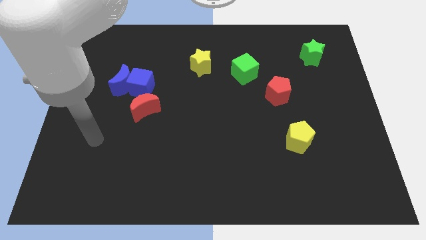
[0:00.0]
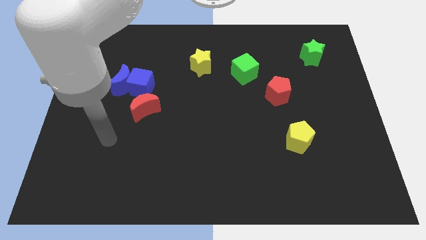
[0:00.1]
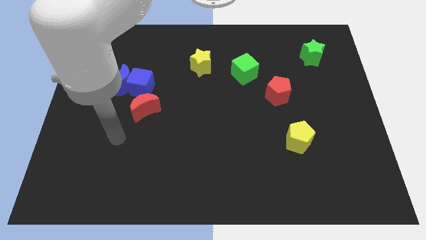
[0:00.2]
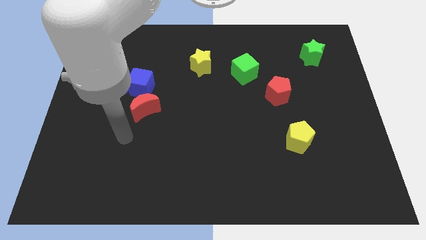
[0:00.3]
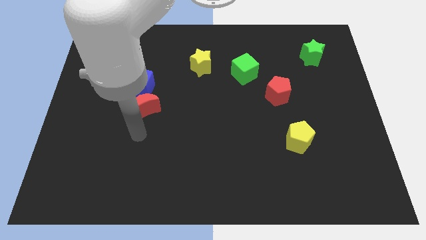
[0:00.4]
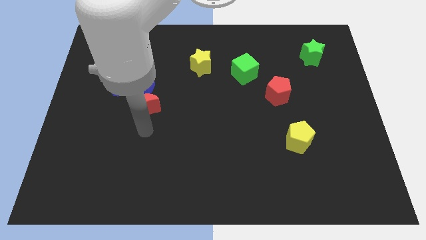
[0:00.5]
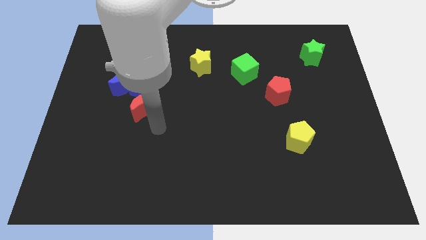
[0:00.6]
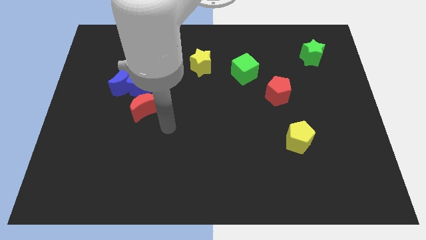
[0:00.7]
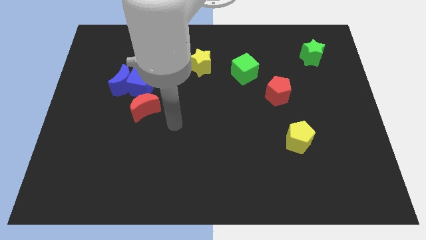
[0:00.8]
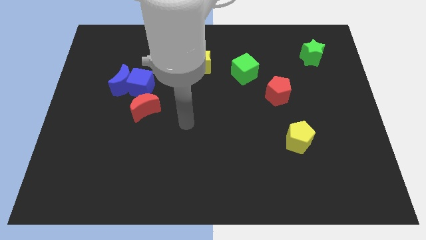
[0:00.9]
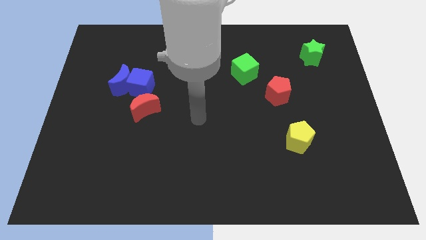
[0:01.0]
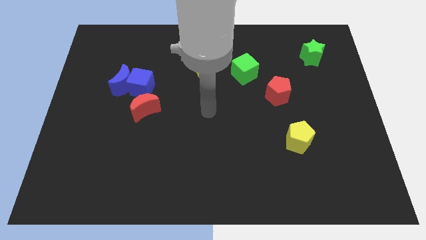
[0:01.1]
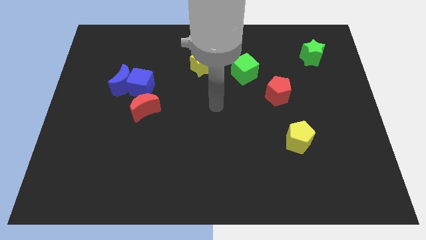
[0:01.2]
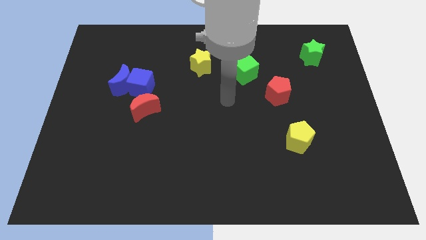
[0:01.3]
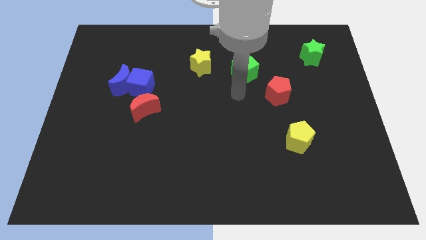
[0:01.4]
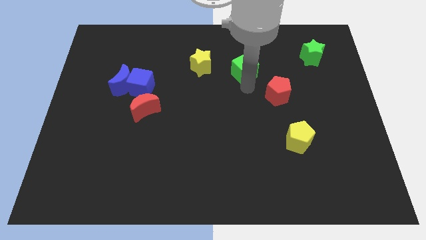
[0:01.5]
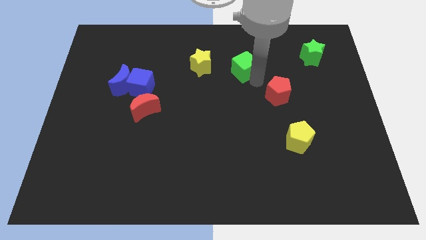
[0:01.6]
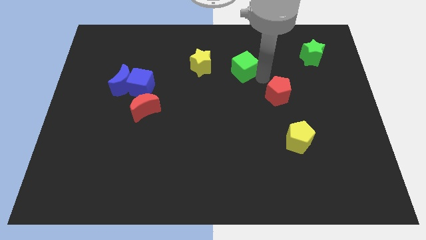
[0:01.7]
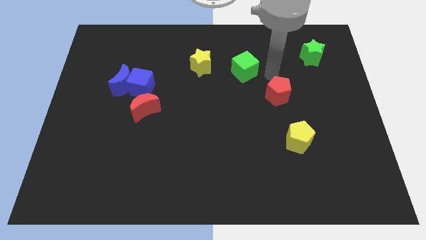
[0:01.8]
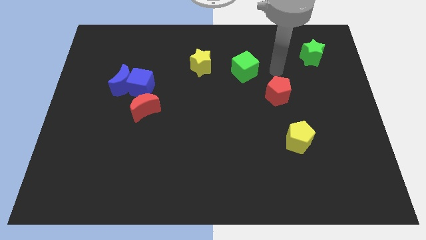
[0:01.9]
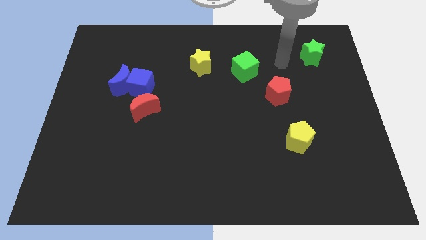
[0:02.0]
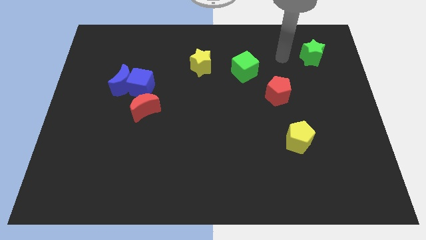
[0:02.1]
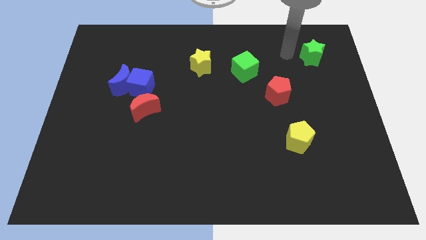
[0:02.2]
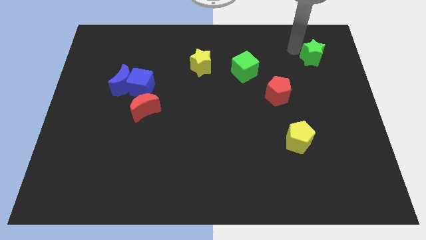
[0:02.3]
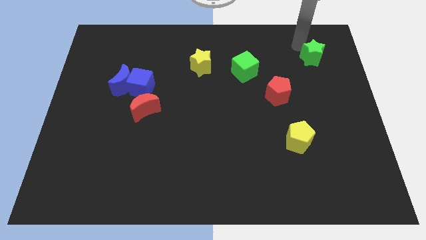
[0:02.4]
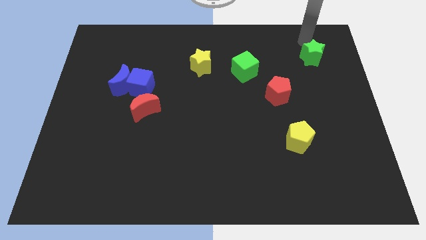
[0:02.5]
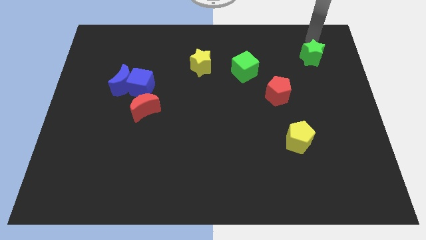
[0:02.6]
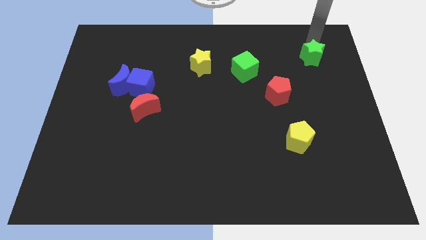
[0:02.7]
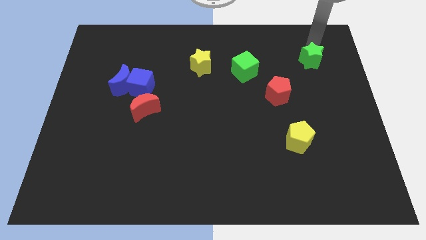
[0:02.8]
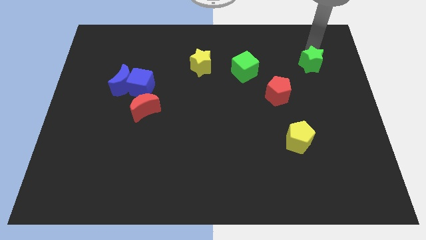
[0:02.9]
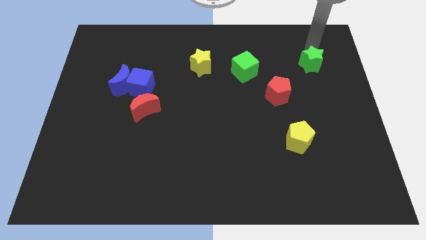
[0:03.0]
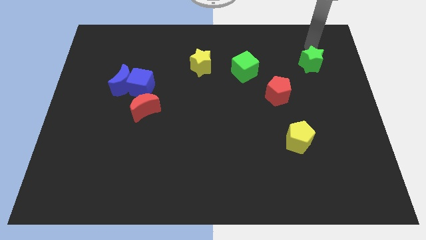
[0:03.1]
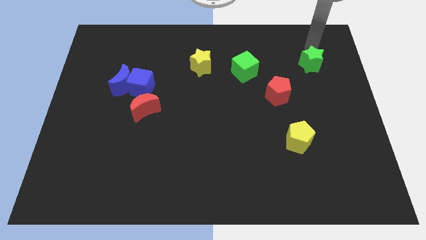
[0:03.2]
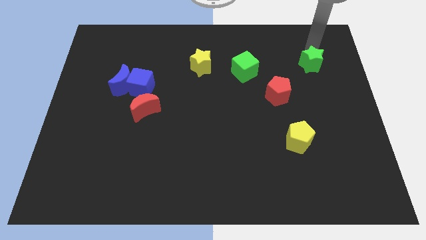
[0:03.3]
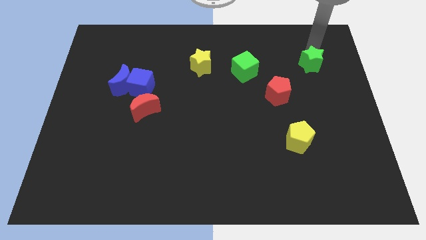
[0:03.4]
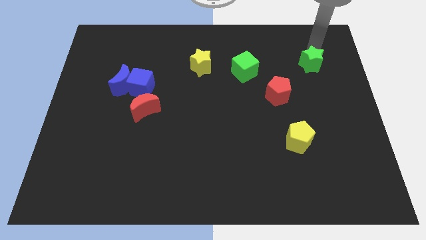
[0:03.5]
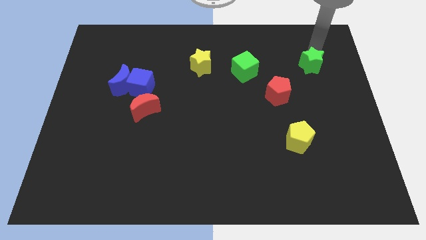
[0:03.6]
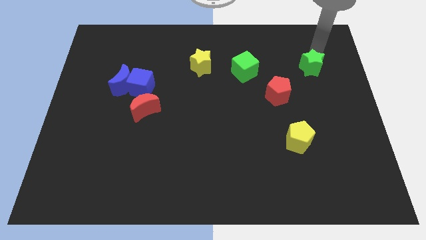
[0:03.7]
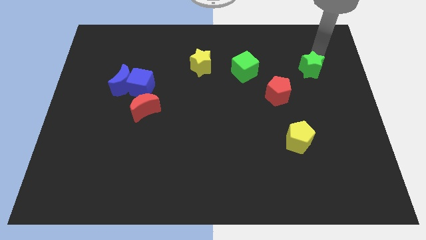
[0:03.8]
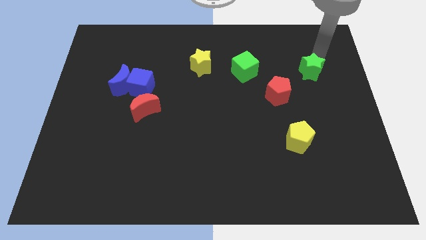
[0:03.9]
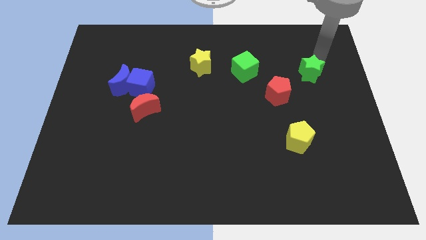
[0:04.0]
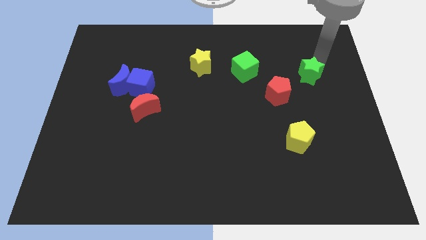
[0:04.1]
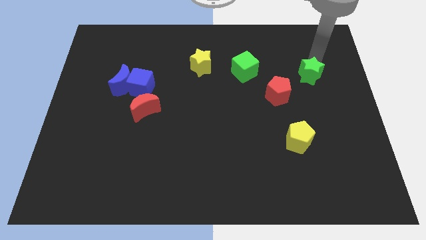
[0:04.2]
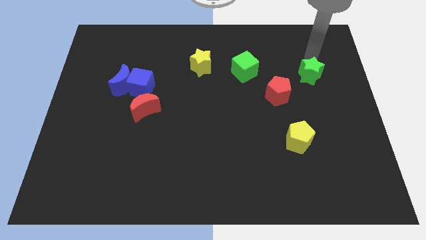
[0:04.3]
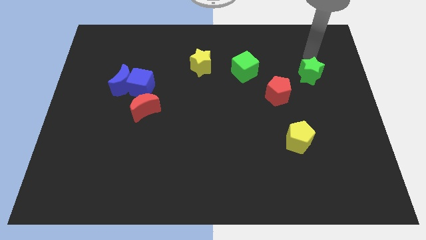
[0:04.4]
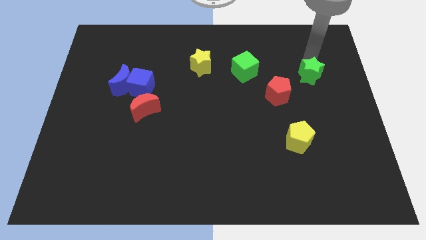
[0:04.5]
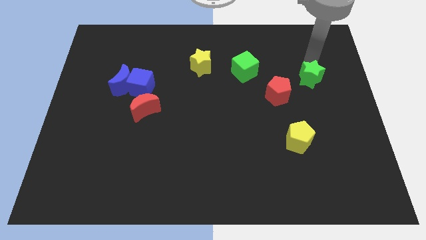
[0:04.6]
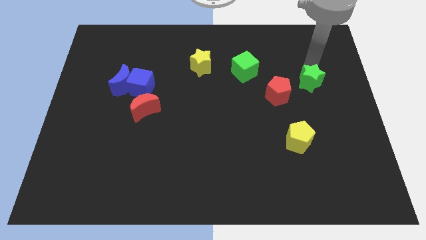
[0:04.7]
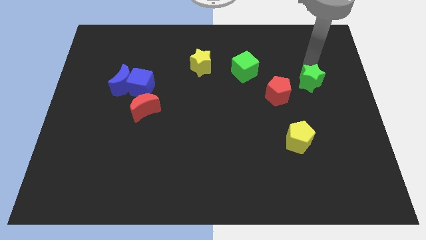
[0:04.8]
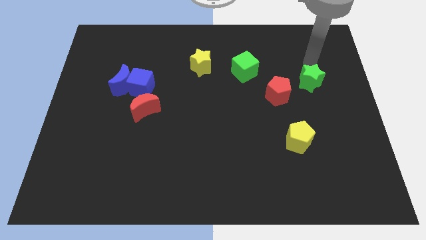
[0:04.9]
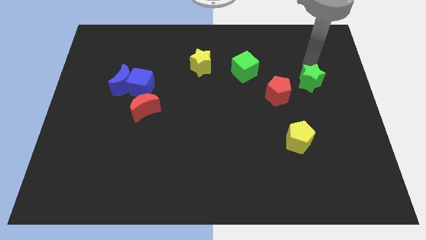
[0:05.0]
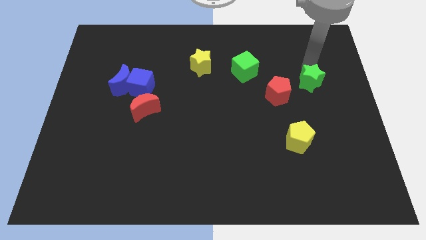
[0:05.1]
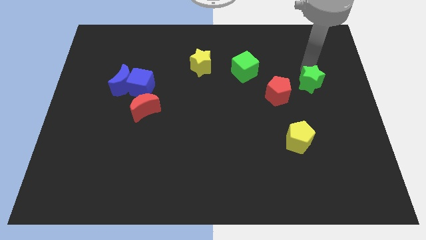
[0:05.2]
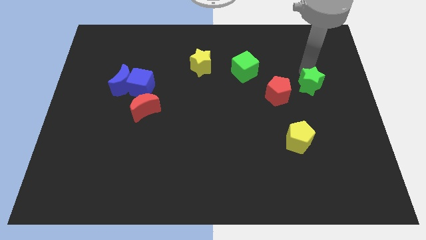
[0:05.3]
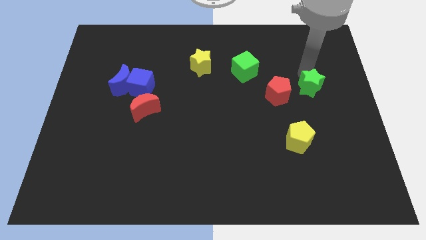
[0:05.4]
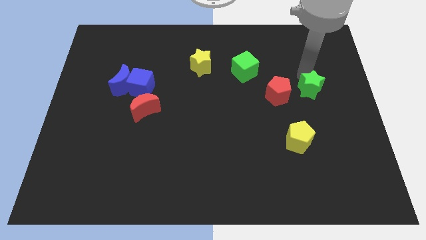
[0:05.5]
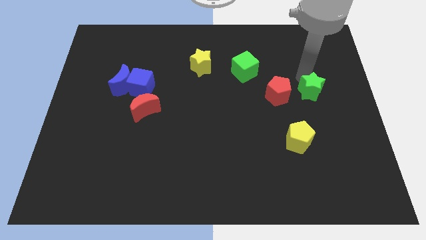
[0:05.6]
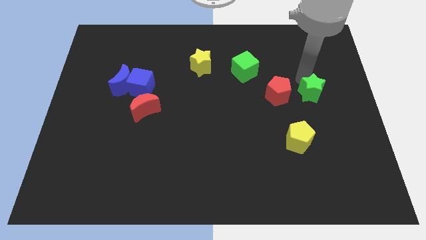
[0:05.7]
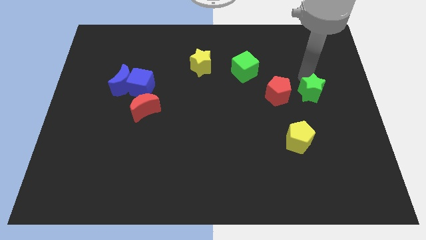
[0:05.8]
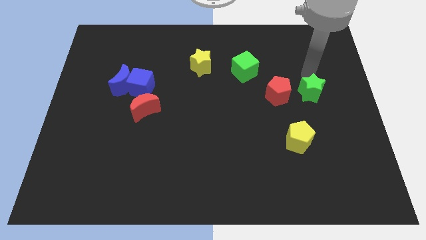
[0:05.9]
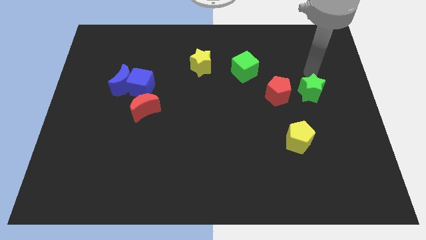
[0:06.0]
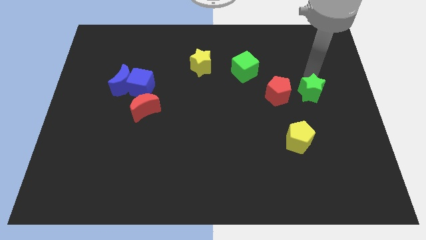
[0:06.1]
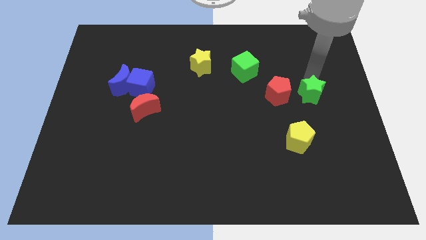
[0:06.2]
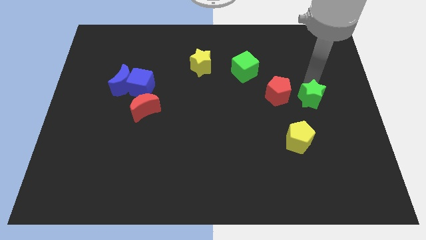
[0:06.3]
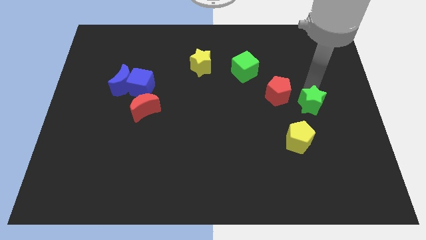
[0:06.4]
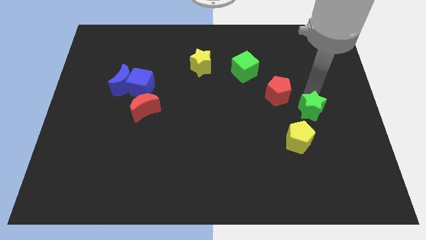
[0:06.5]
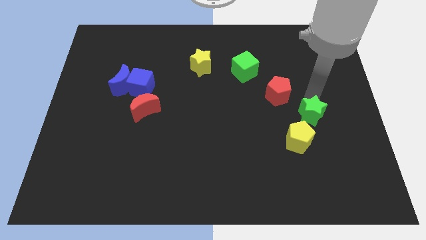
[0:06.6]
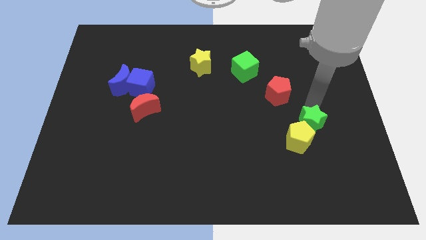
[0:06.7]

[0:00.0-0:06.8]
slide the green star towards the yellow pentagon
